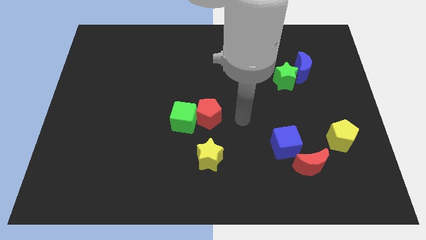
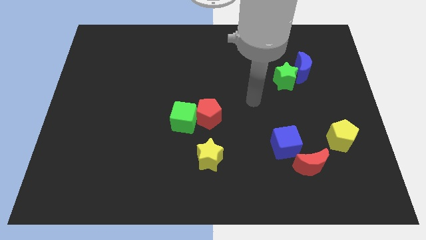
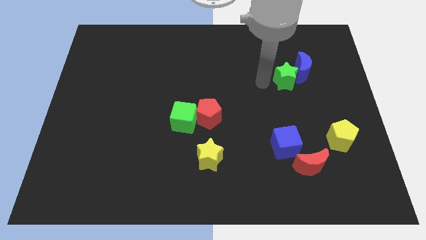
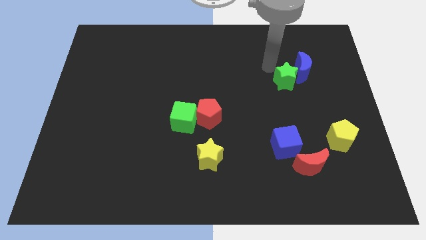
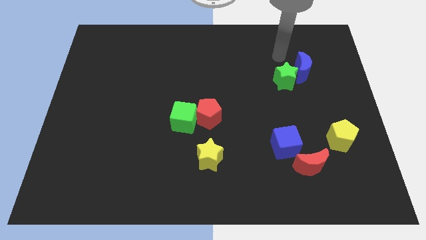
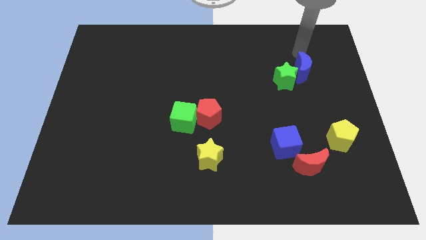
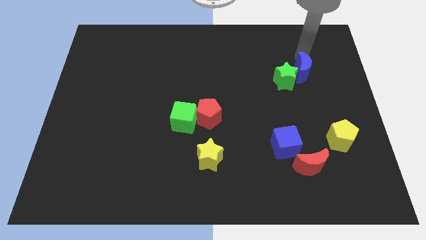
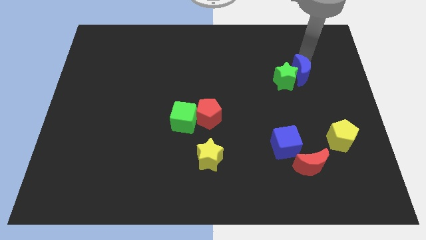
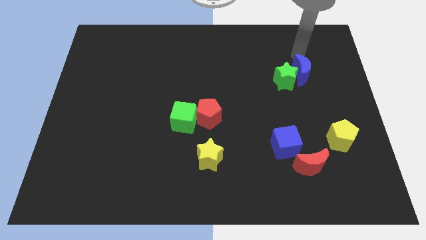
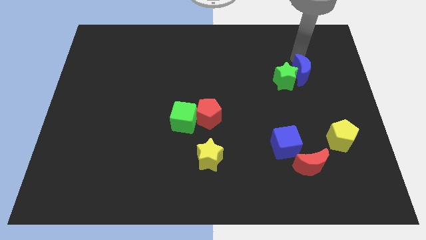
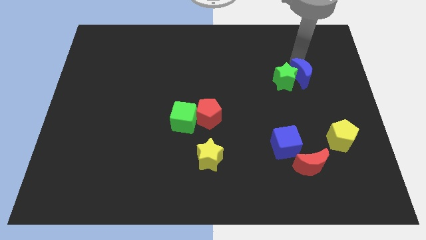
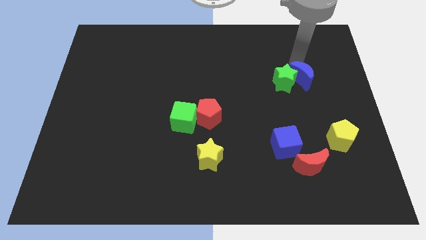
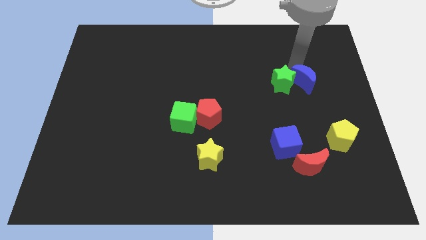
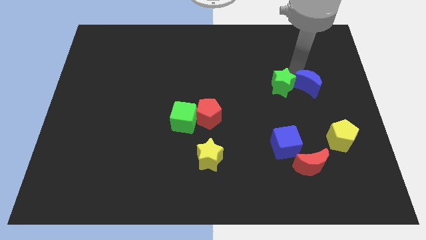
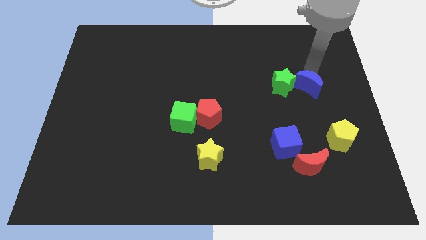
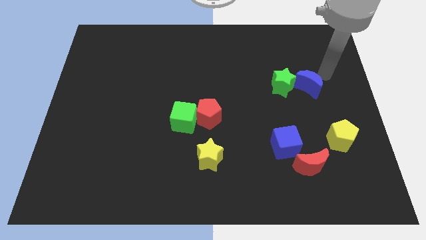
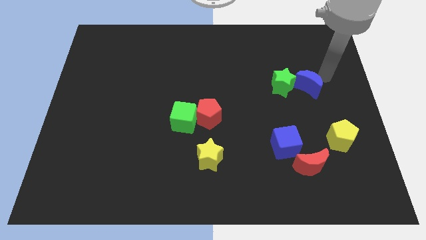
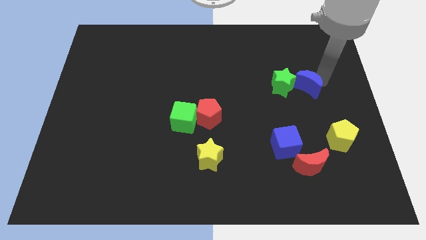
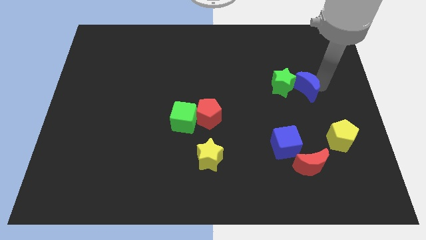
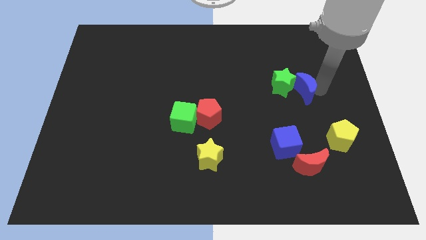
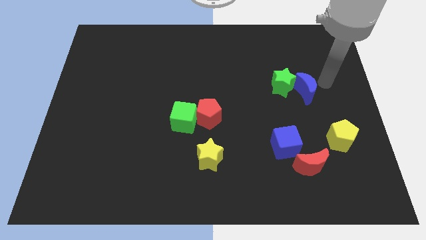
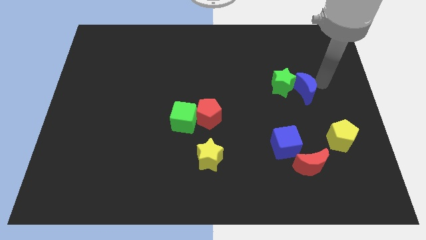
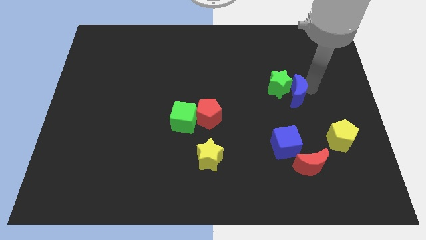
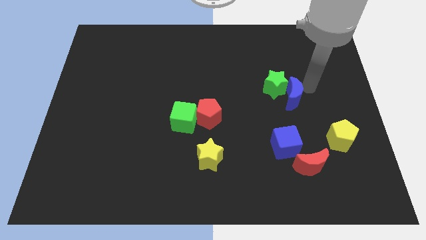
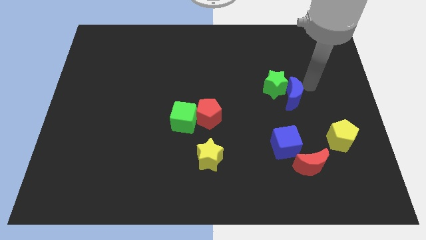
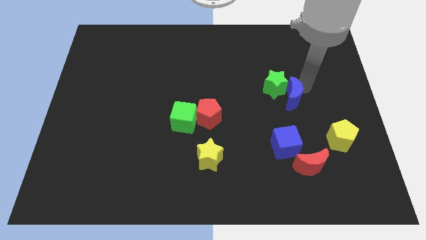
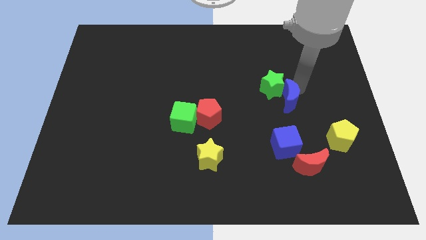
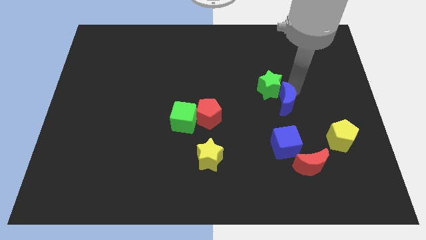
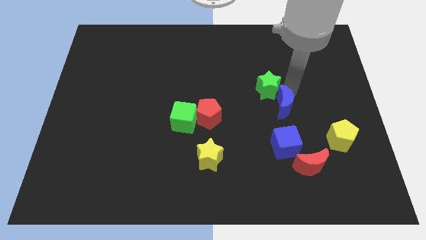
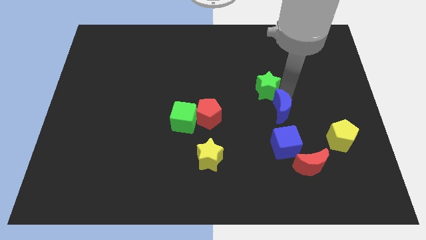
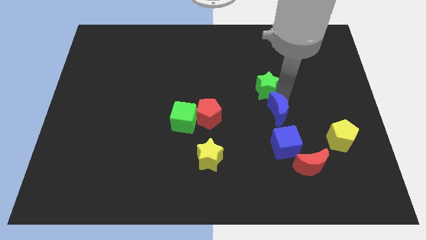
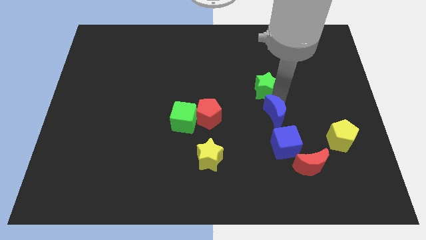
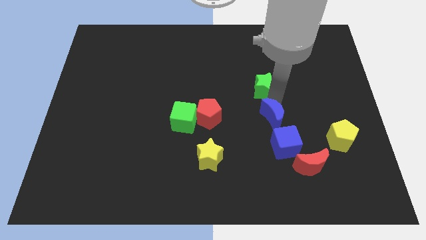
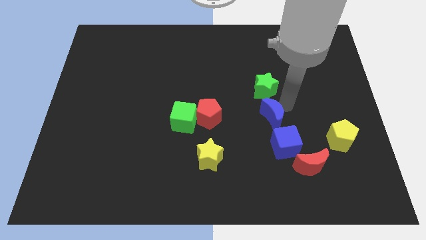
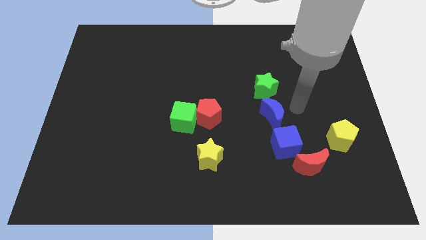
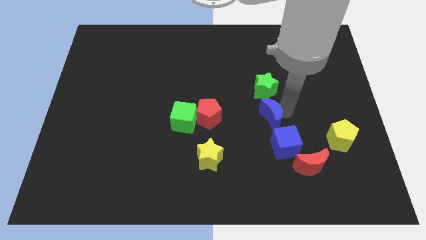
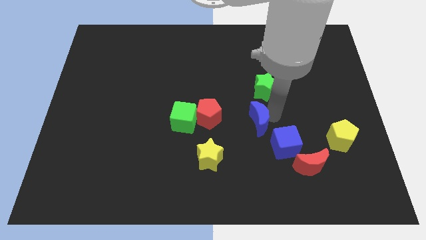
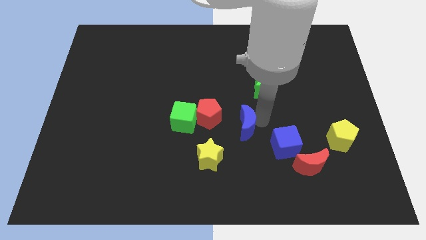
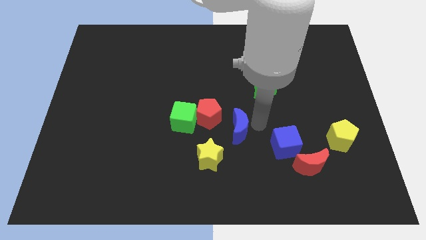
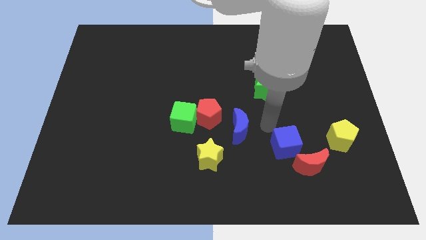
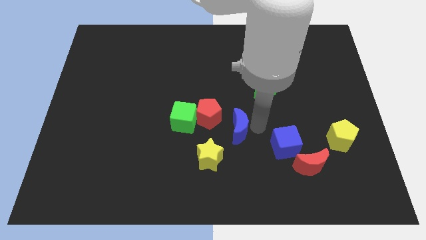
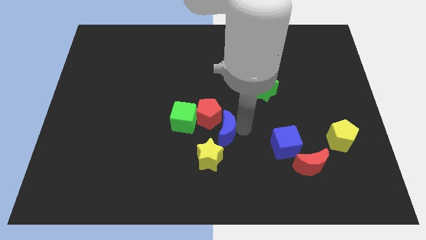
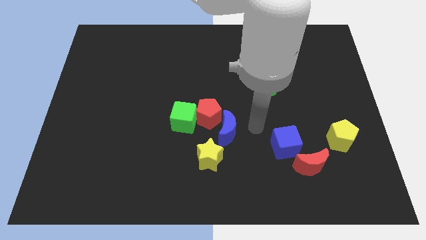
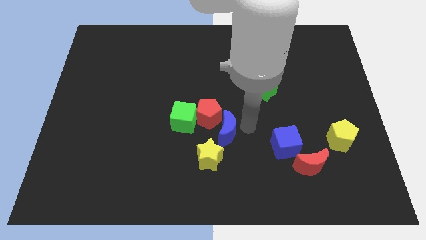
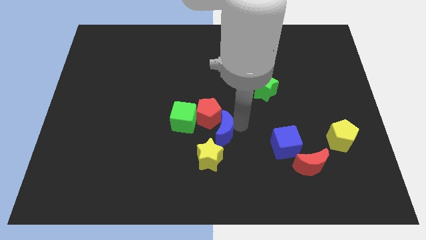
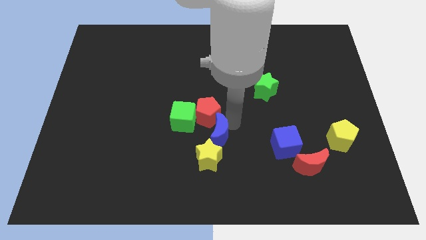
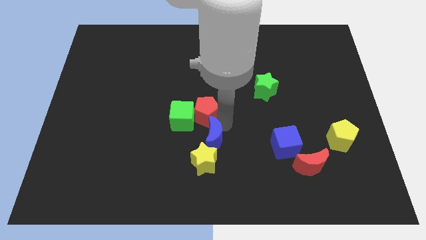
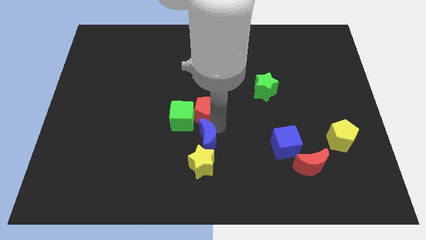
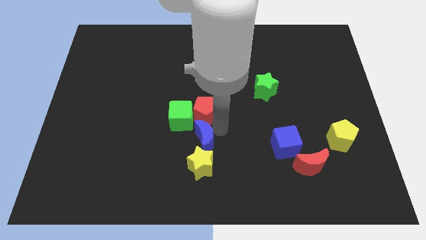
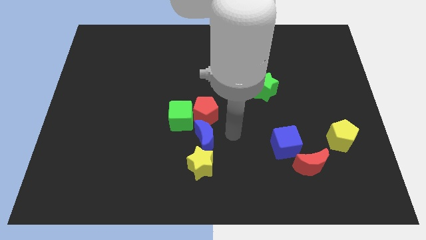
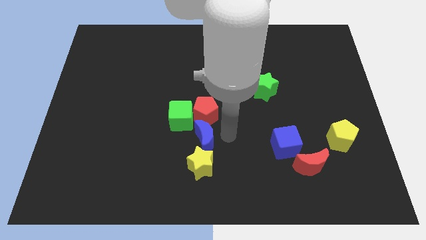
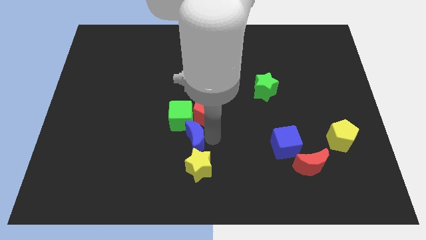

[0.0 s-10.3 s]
put the blue moon to the top left of the yellow star

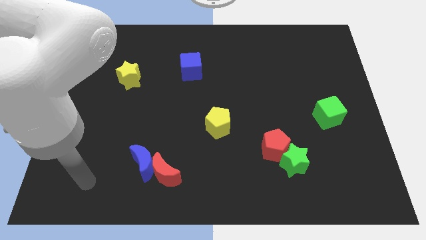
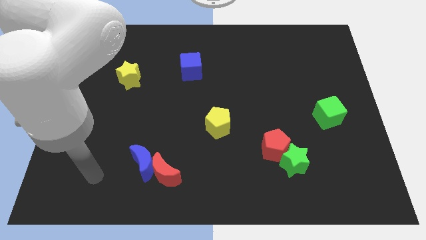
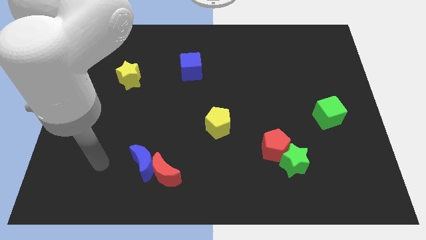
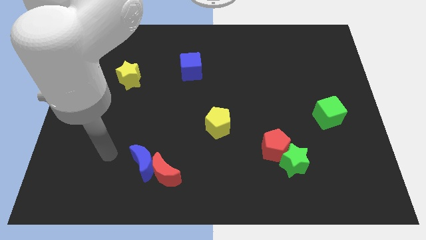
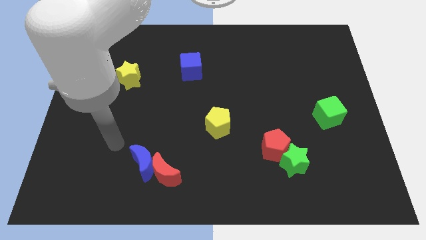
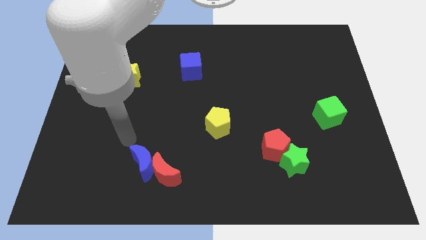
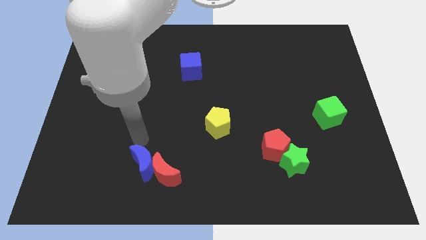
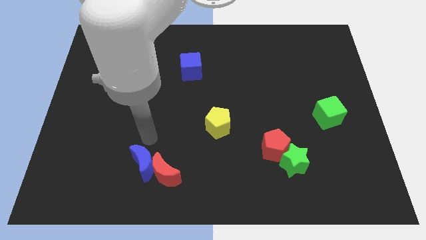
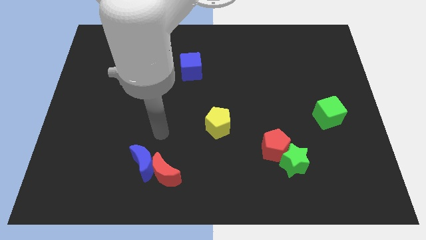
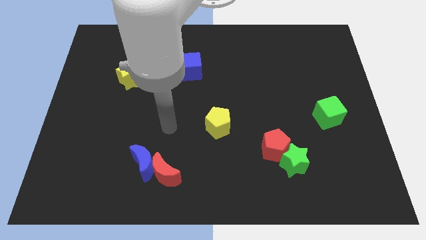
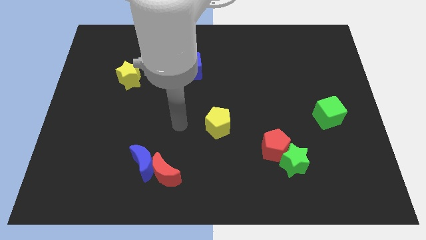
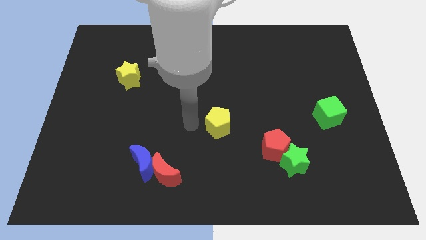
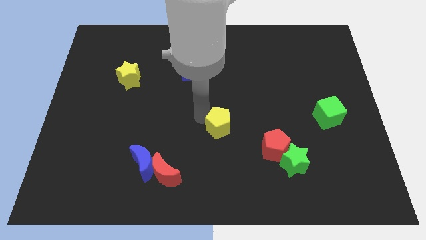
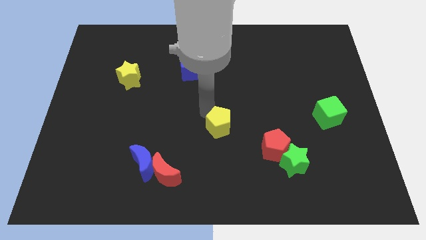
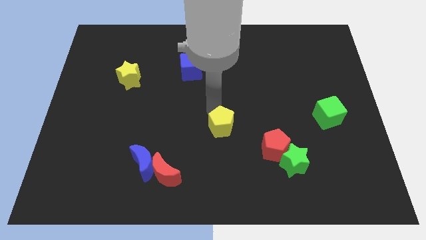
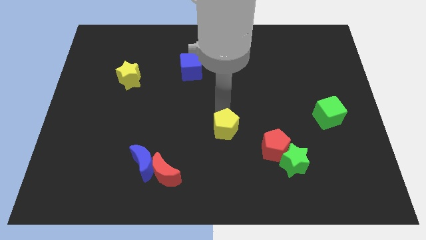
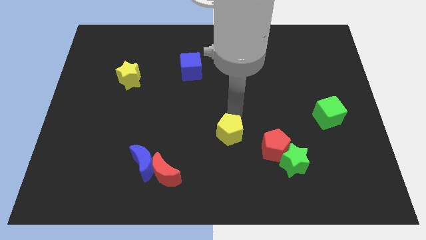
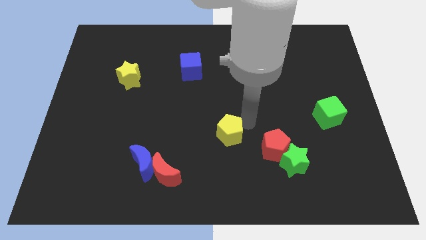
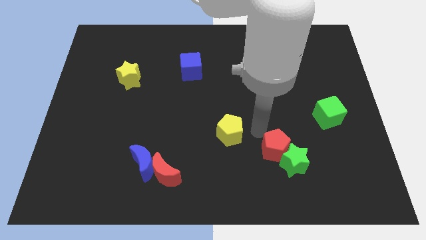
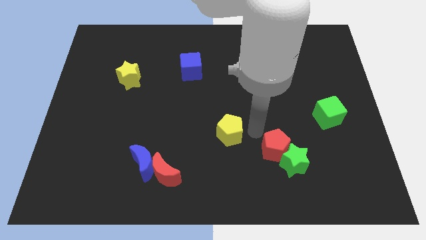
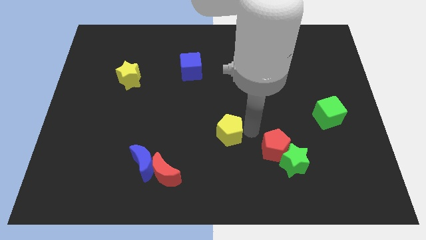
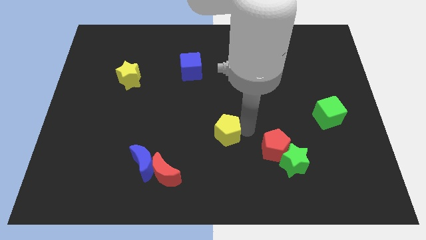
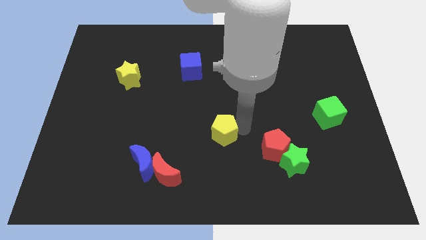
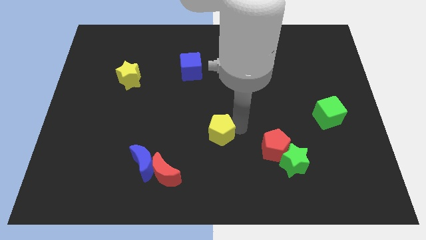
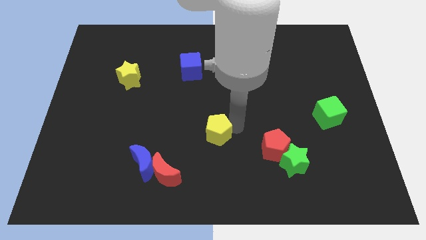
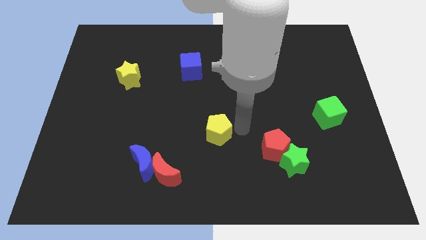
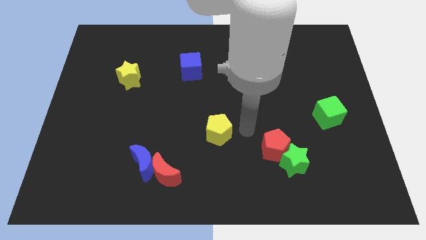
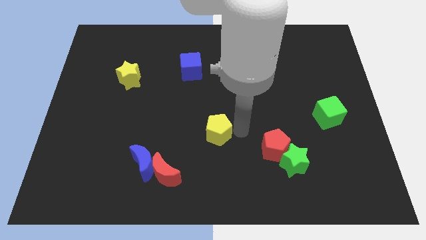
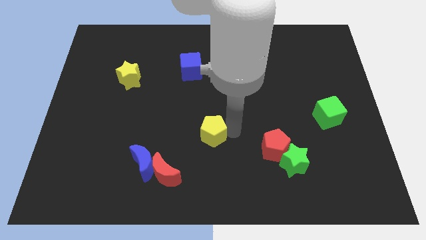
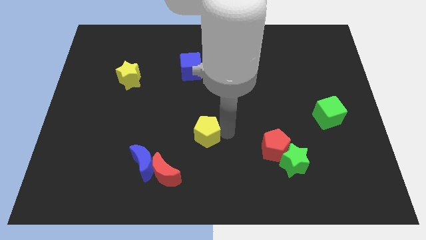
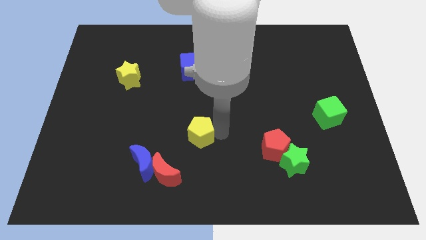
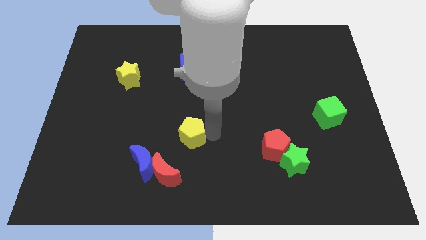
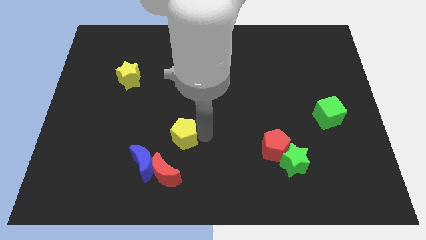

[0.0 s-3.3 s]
move the yellow pentagon to the top of the red moon

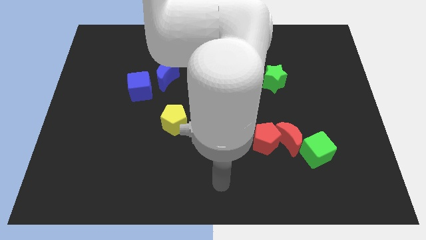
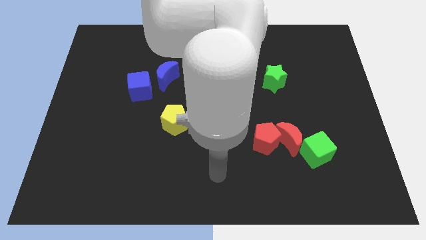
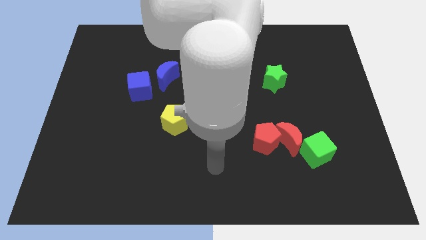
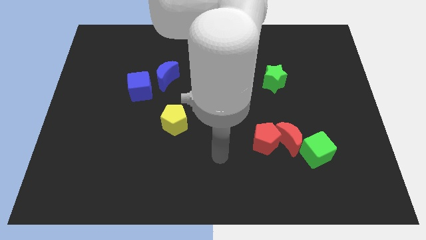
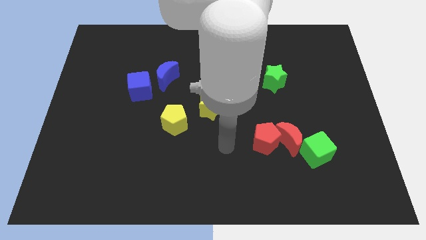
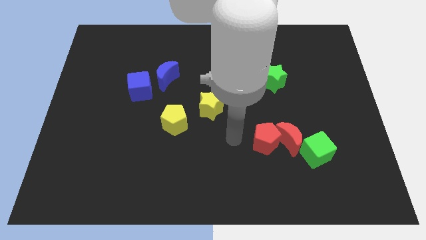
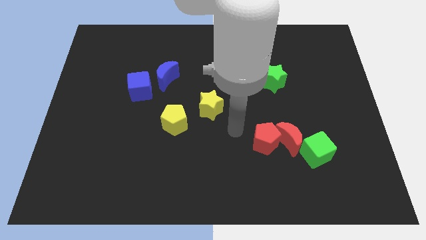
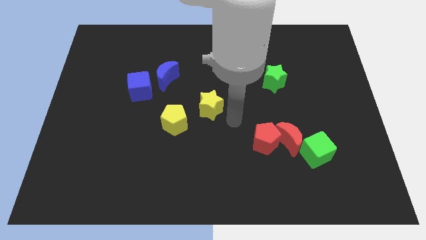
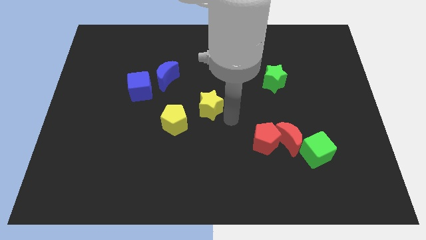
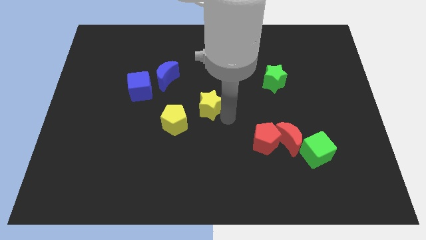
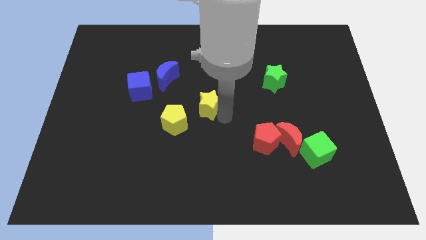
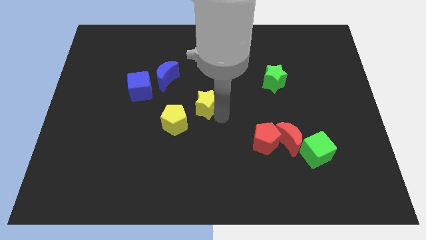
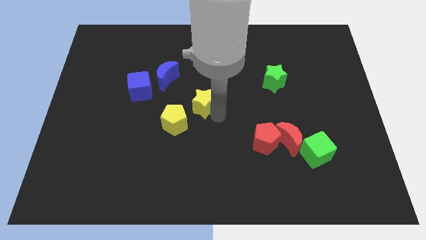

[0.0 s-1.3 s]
put the yellow star to the bottom right side of the blue moon
